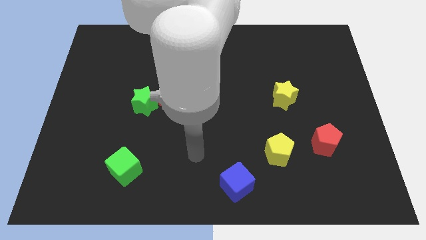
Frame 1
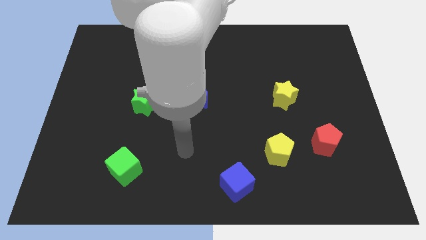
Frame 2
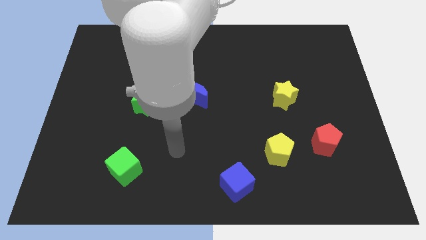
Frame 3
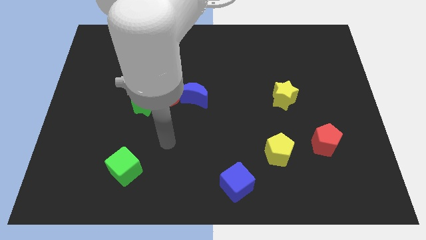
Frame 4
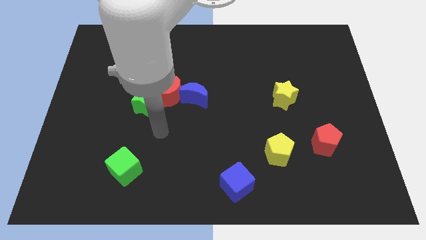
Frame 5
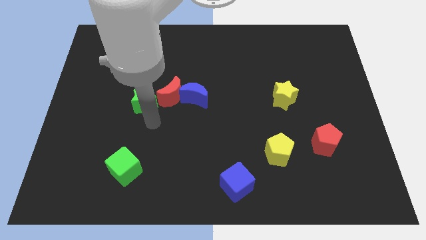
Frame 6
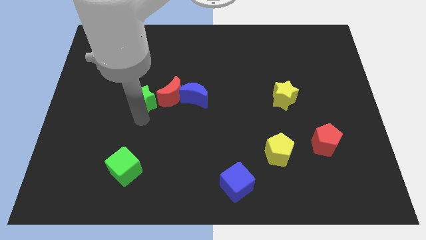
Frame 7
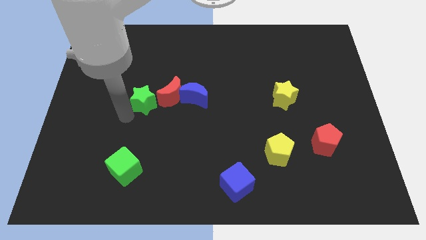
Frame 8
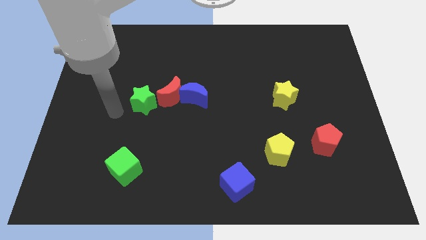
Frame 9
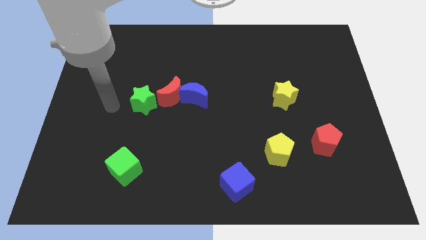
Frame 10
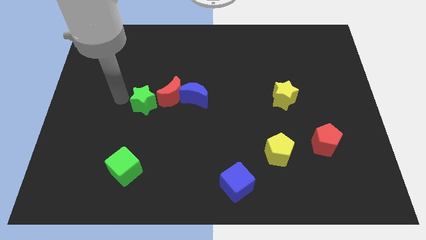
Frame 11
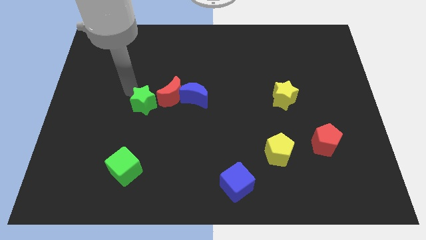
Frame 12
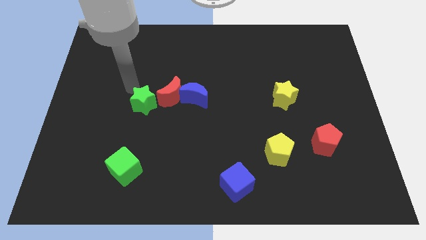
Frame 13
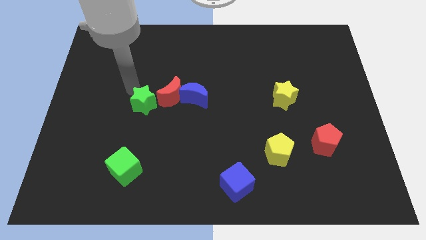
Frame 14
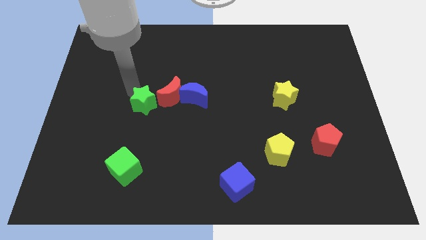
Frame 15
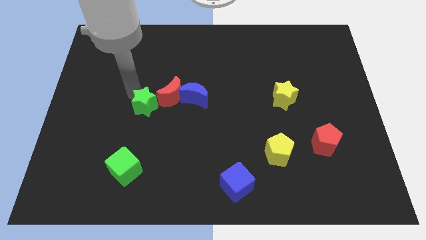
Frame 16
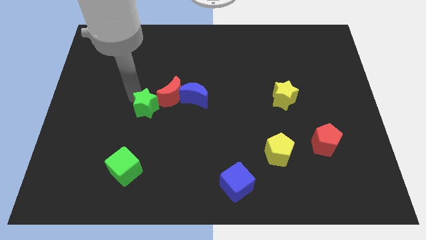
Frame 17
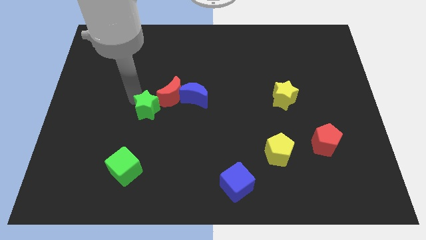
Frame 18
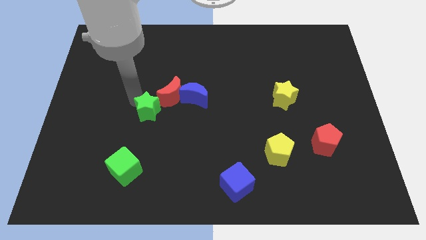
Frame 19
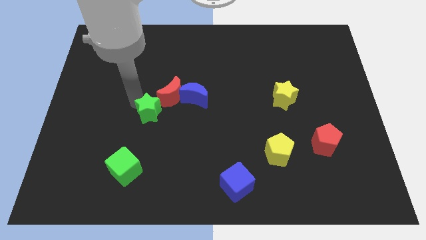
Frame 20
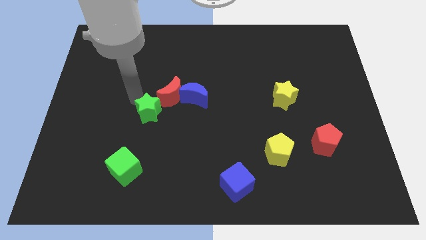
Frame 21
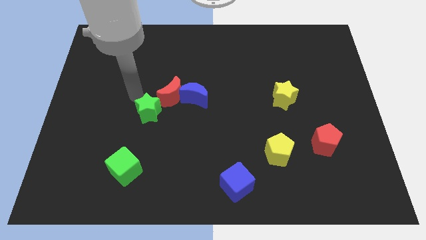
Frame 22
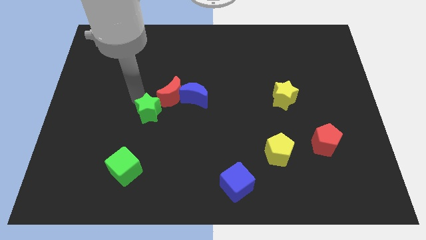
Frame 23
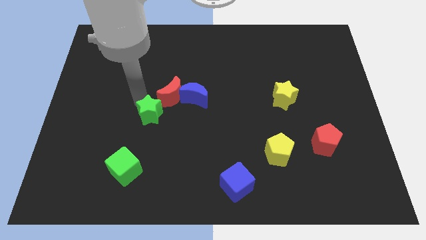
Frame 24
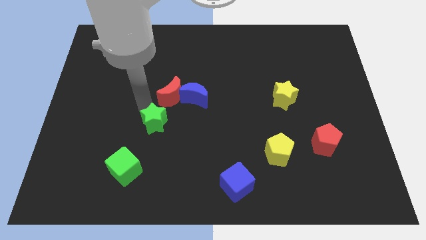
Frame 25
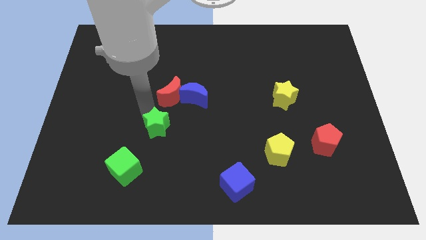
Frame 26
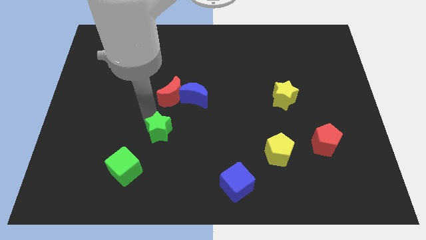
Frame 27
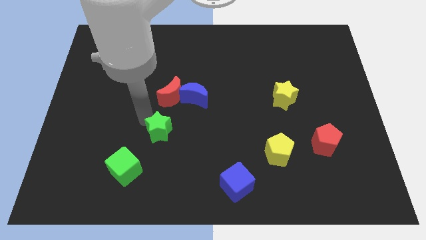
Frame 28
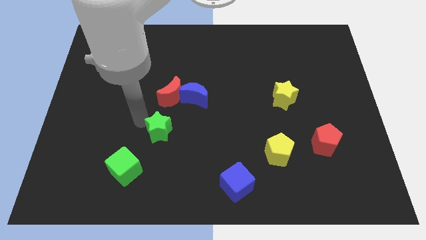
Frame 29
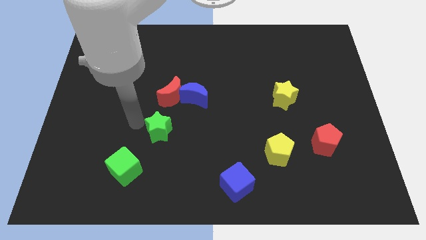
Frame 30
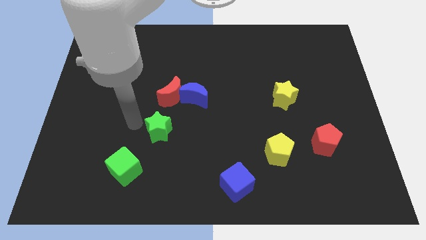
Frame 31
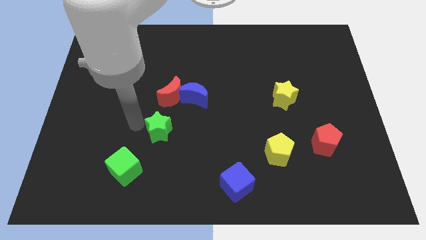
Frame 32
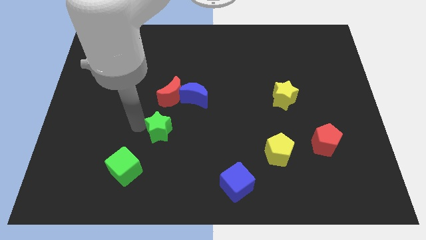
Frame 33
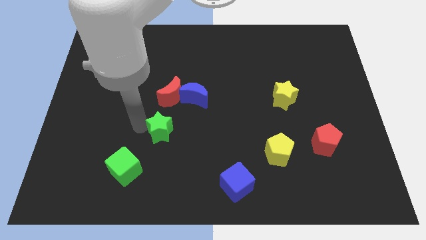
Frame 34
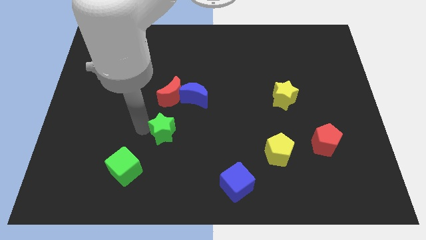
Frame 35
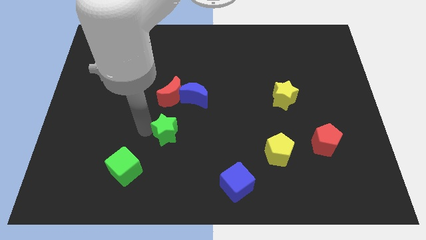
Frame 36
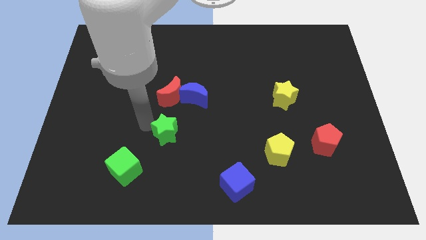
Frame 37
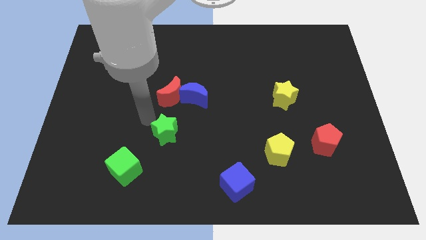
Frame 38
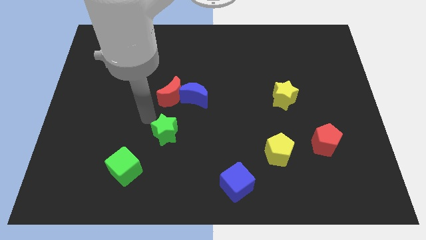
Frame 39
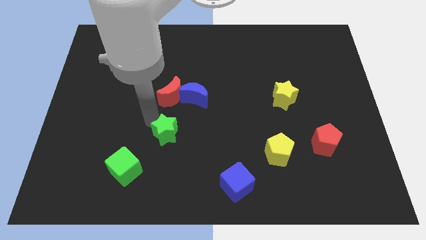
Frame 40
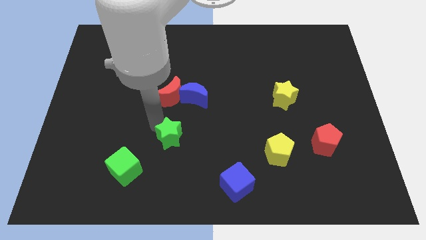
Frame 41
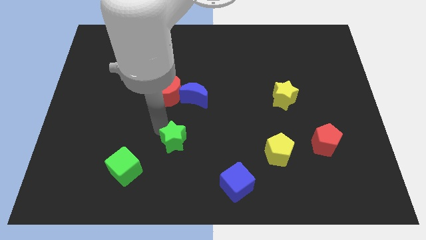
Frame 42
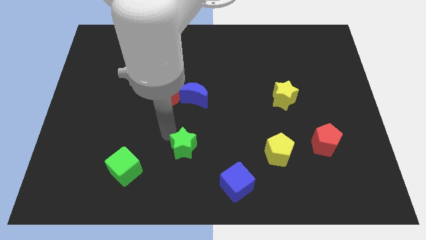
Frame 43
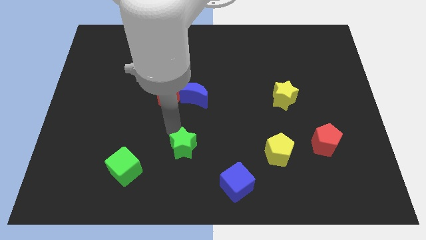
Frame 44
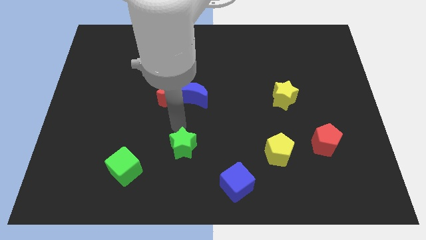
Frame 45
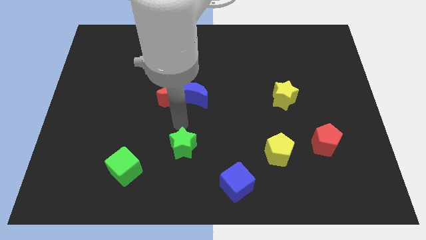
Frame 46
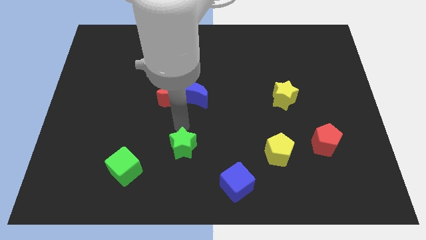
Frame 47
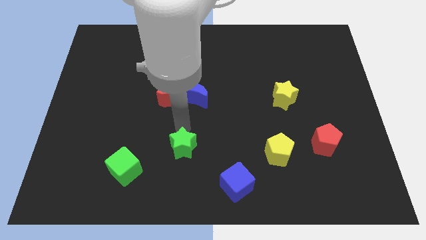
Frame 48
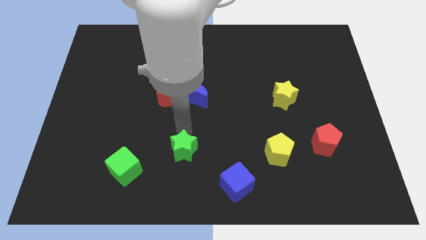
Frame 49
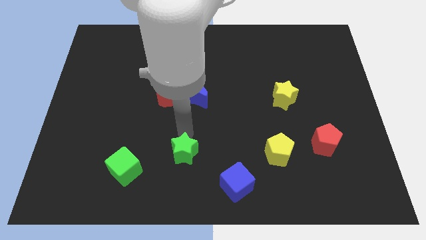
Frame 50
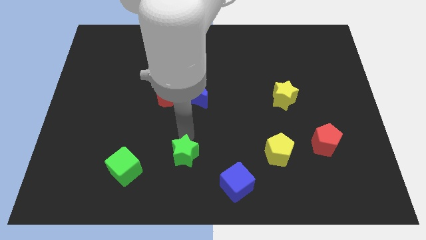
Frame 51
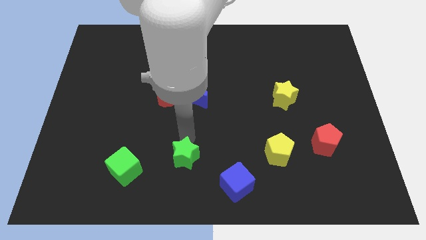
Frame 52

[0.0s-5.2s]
put the green star to the bottom side

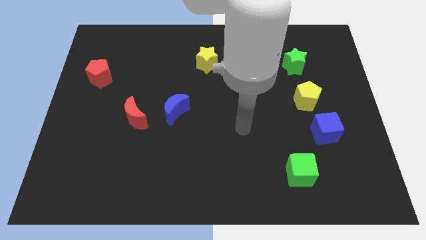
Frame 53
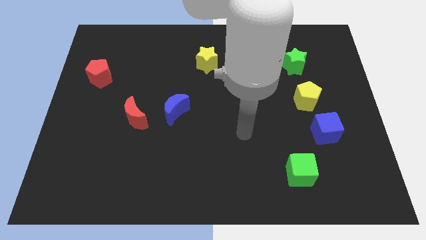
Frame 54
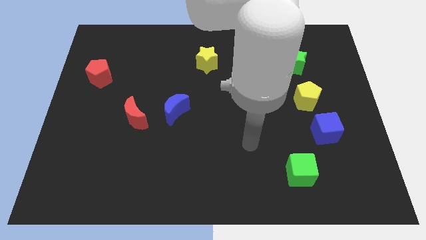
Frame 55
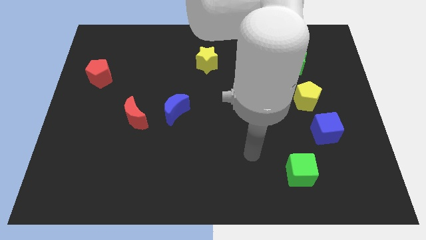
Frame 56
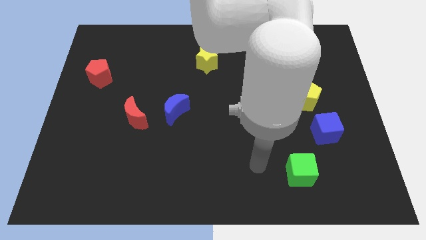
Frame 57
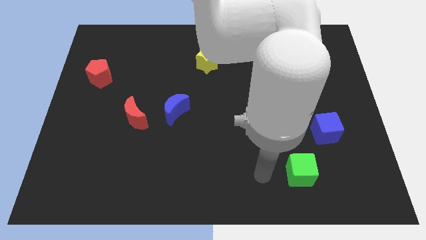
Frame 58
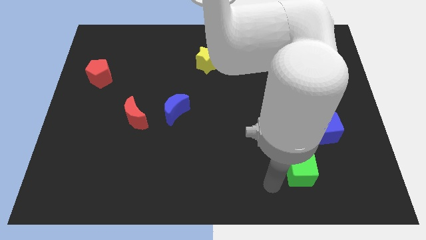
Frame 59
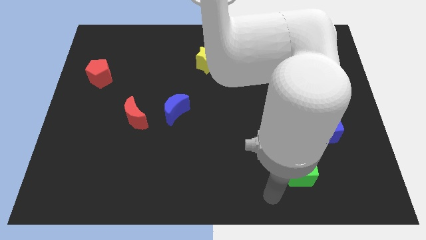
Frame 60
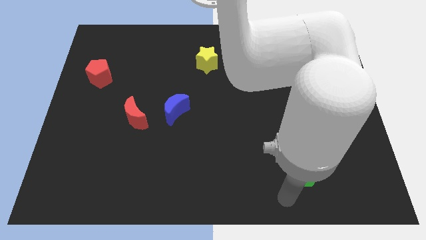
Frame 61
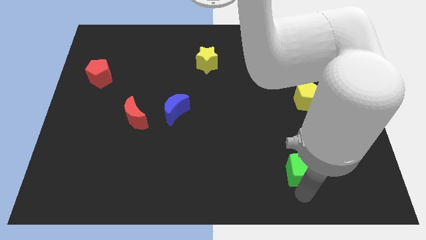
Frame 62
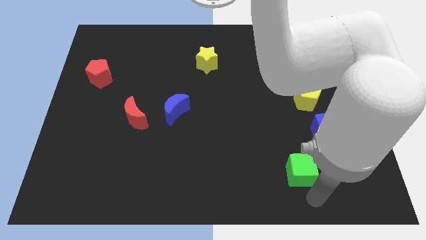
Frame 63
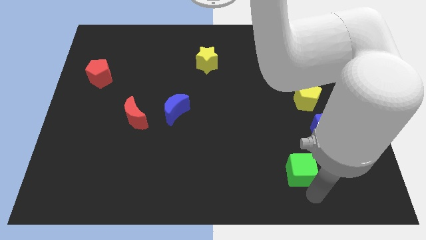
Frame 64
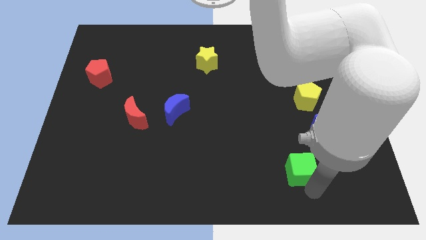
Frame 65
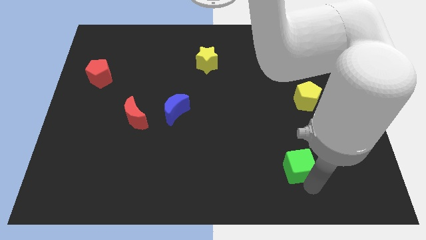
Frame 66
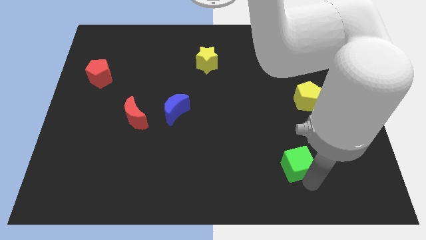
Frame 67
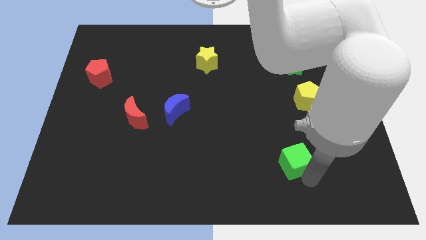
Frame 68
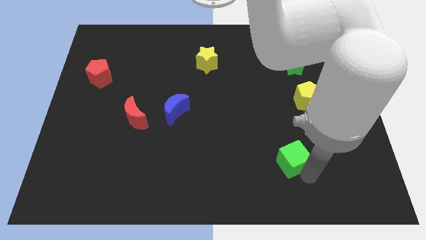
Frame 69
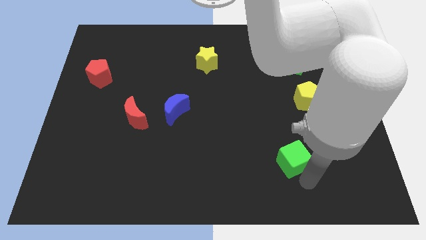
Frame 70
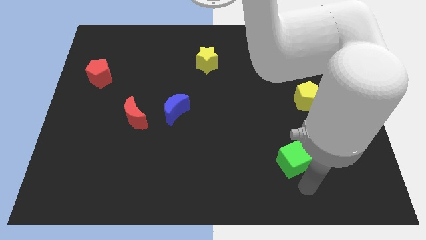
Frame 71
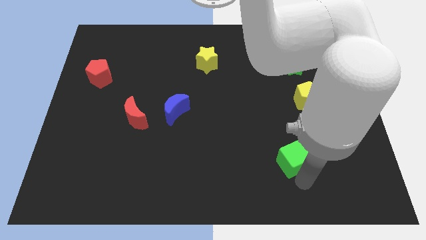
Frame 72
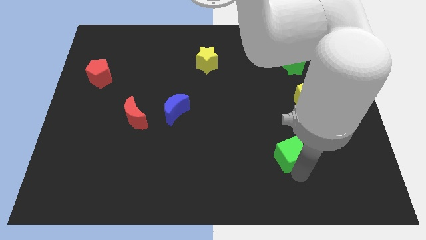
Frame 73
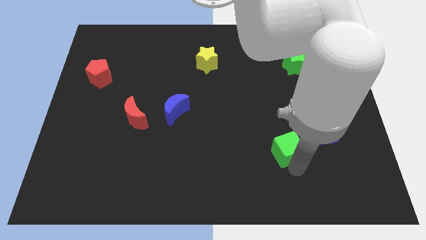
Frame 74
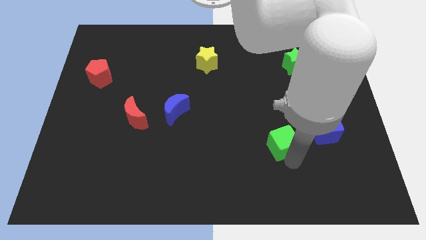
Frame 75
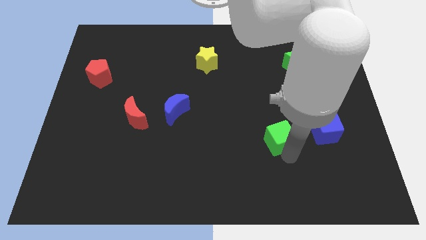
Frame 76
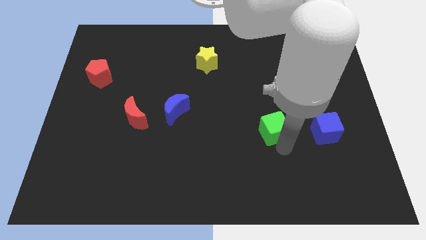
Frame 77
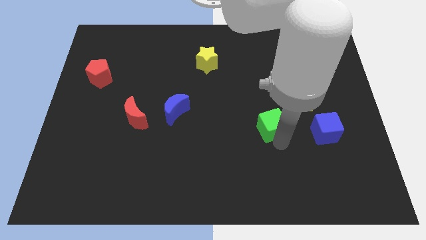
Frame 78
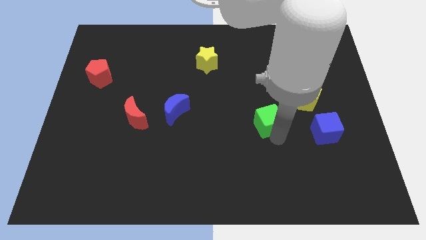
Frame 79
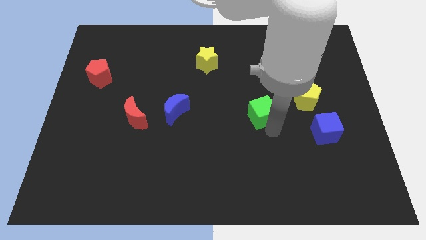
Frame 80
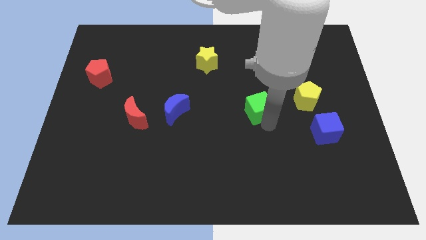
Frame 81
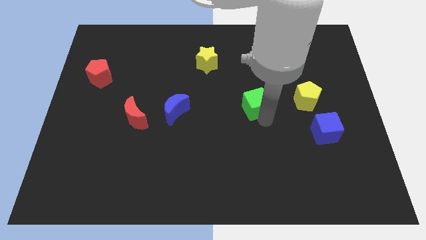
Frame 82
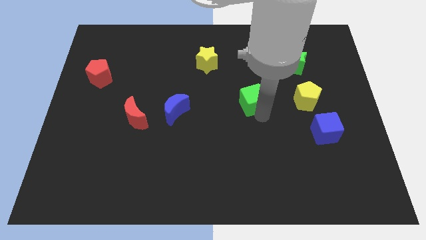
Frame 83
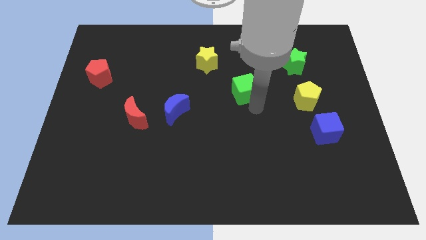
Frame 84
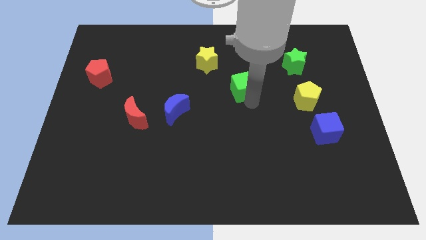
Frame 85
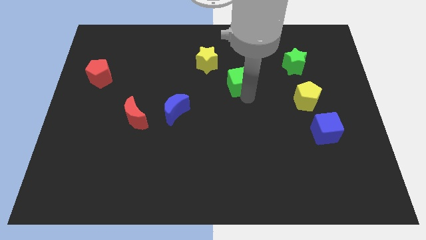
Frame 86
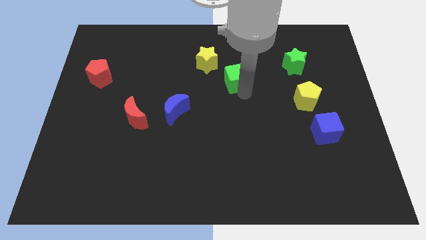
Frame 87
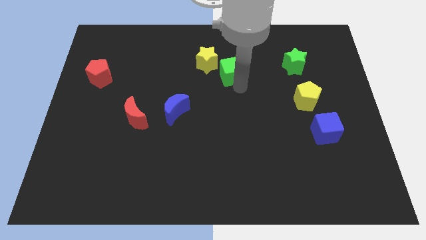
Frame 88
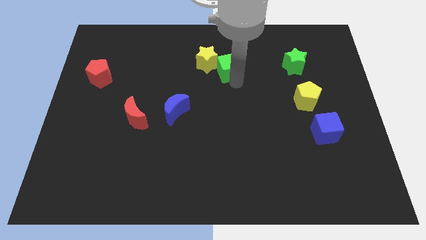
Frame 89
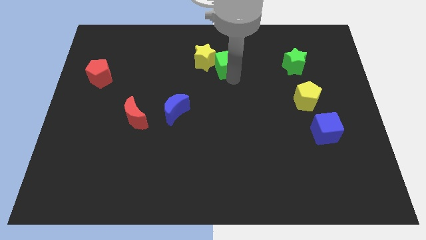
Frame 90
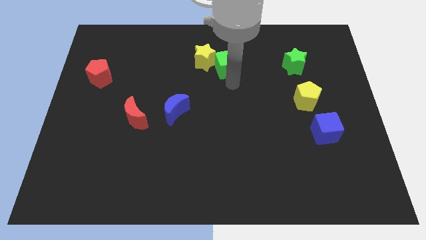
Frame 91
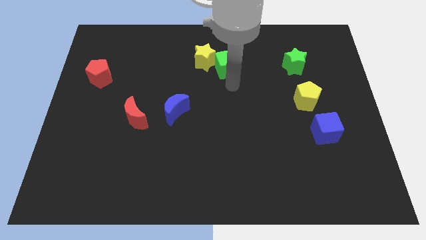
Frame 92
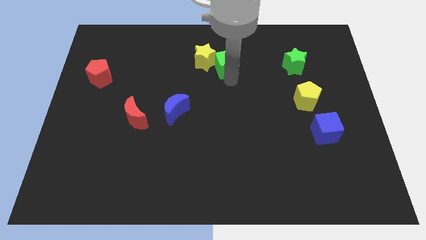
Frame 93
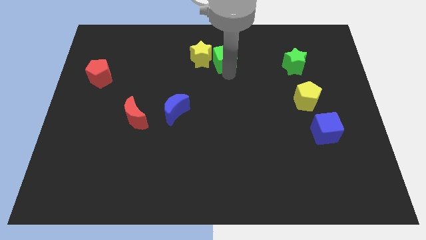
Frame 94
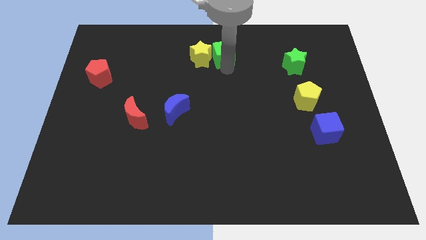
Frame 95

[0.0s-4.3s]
push the green cube to the top
